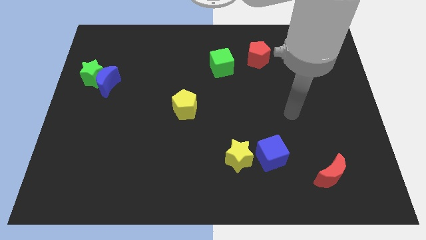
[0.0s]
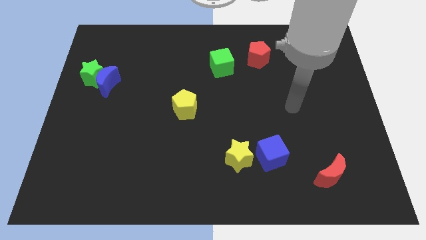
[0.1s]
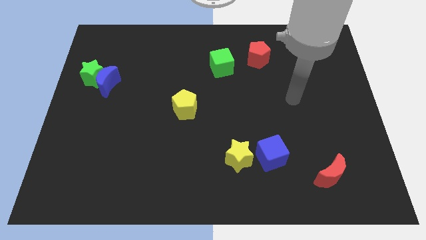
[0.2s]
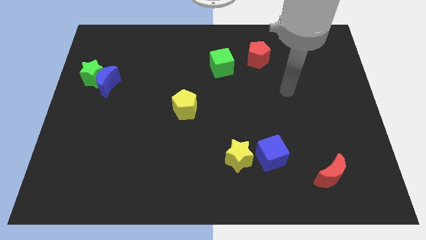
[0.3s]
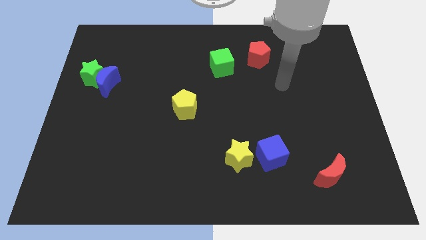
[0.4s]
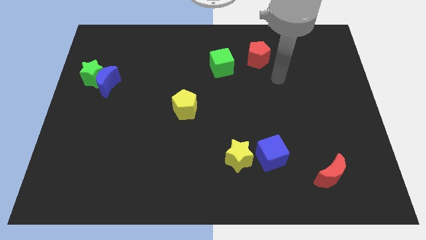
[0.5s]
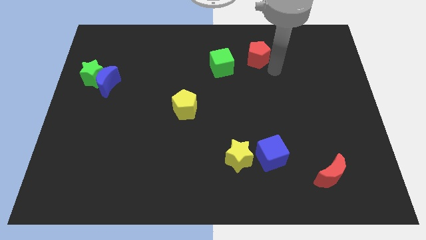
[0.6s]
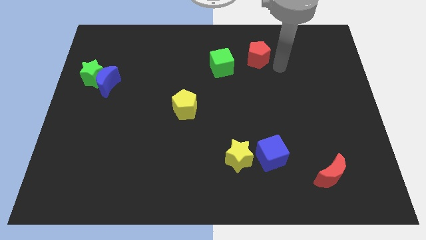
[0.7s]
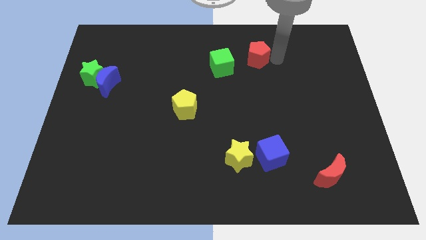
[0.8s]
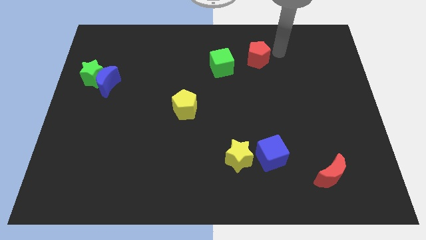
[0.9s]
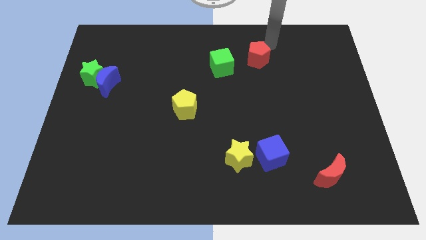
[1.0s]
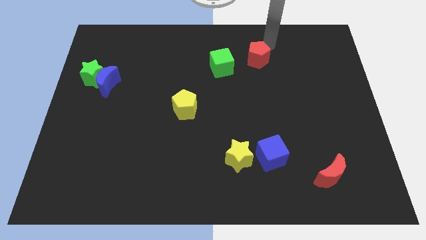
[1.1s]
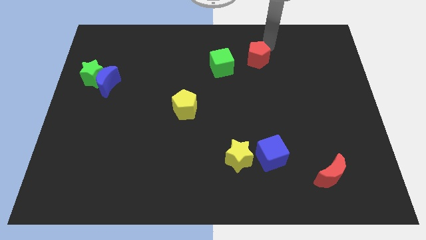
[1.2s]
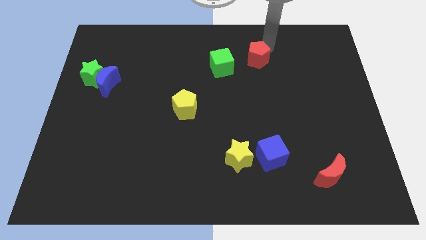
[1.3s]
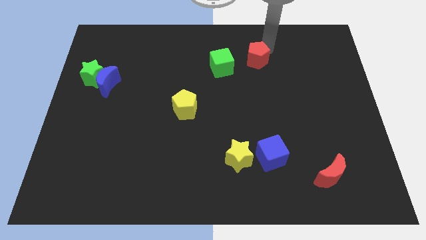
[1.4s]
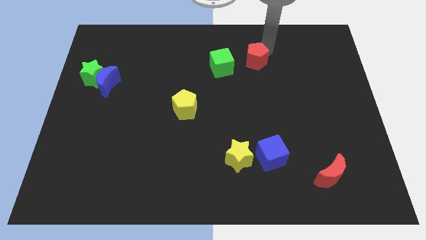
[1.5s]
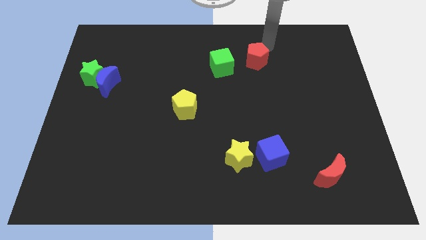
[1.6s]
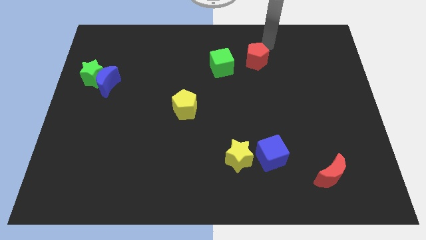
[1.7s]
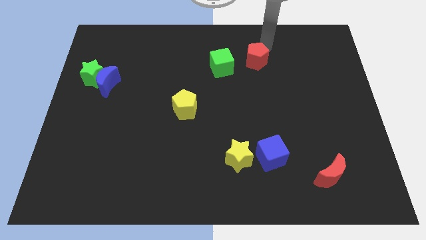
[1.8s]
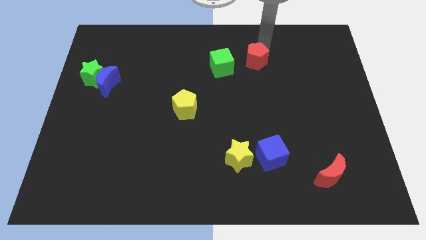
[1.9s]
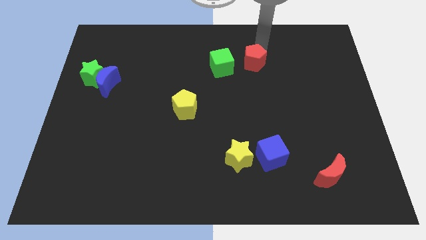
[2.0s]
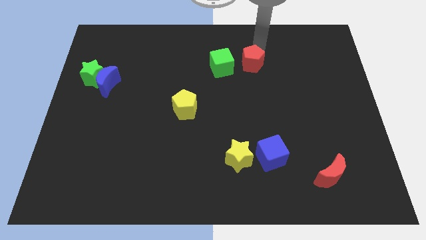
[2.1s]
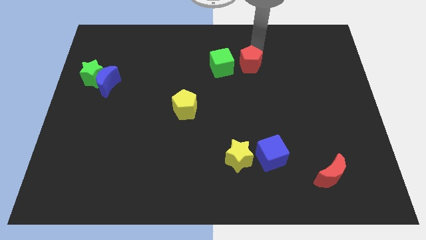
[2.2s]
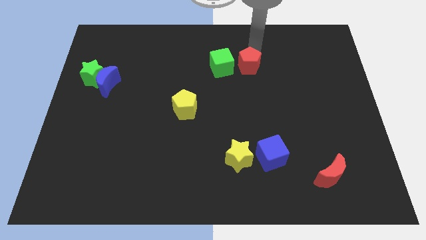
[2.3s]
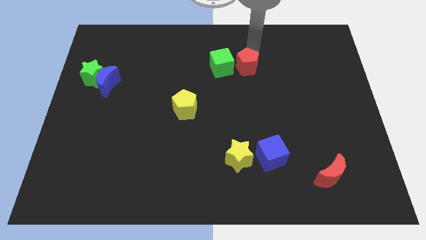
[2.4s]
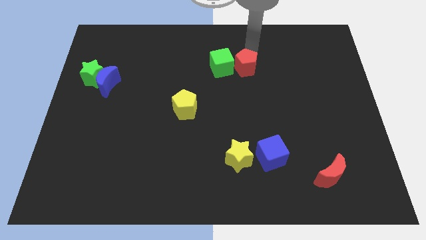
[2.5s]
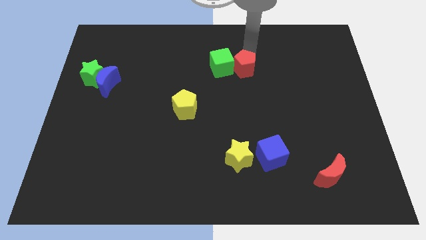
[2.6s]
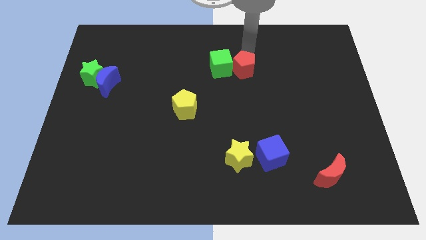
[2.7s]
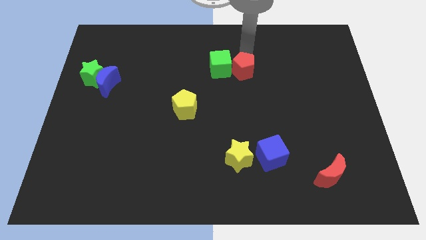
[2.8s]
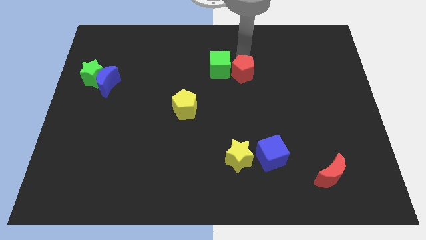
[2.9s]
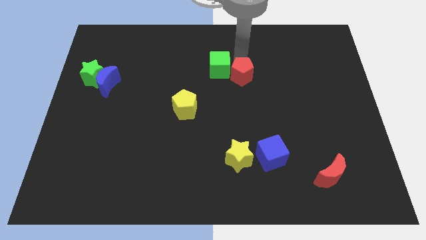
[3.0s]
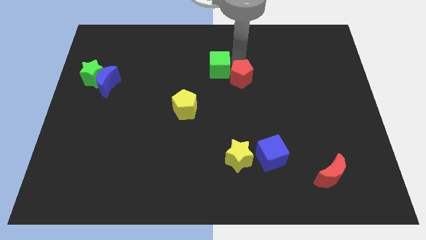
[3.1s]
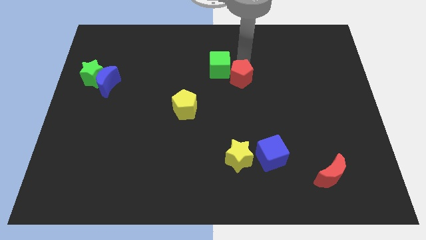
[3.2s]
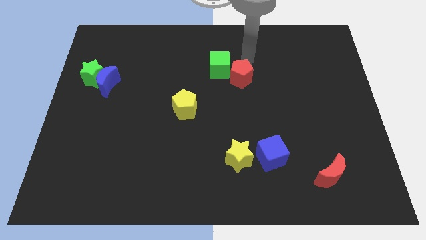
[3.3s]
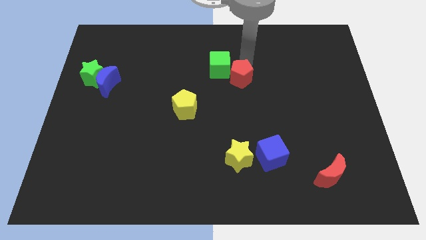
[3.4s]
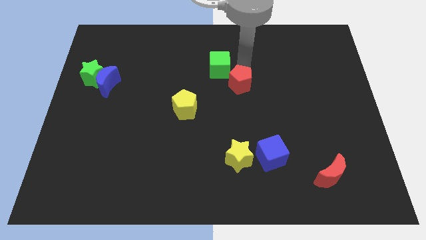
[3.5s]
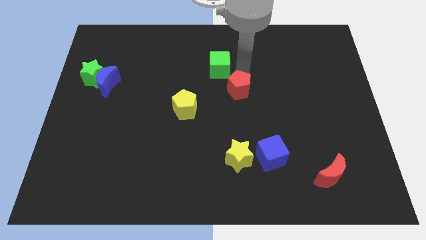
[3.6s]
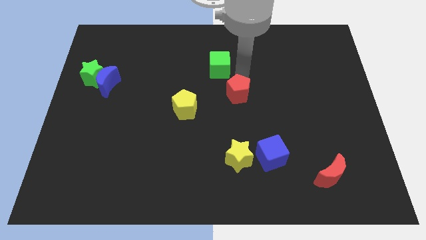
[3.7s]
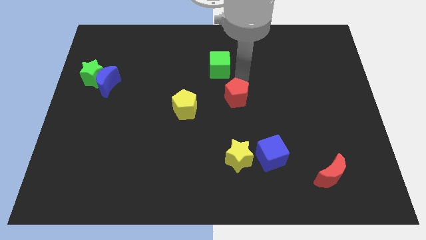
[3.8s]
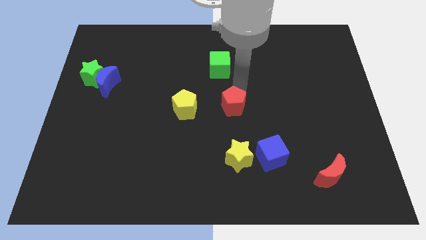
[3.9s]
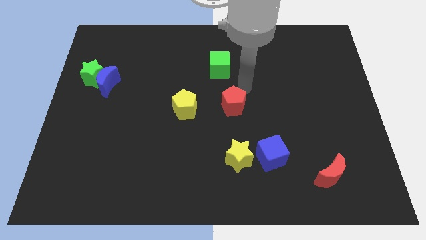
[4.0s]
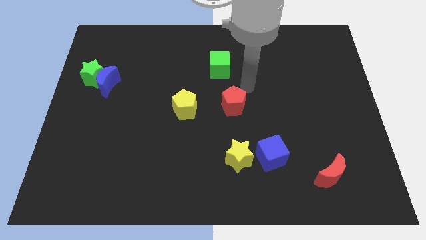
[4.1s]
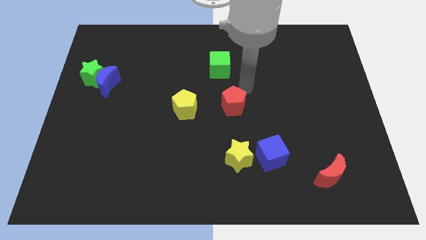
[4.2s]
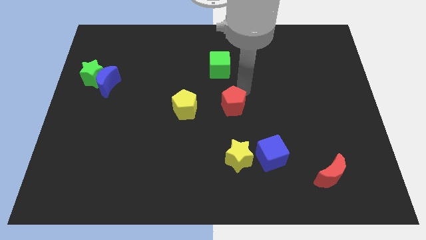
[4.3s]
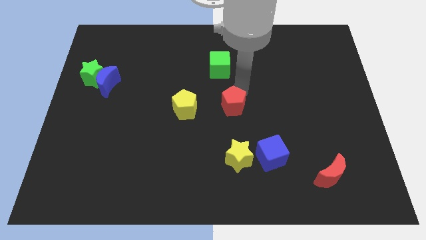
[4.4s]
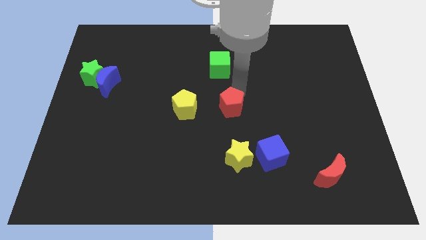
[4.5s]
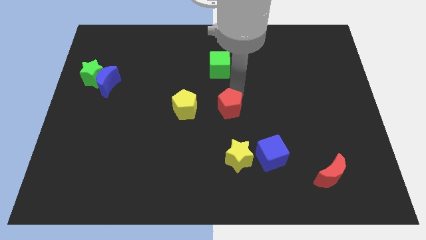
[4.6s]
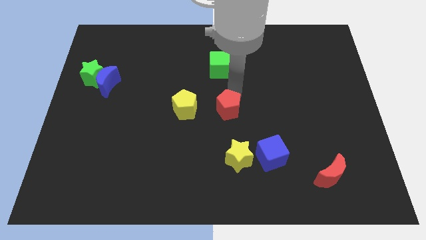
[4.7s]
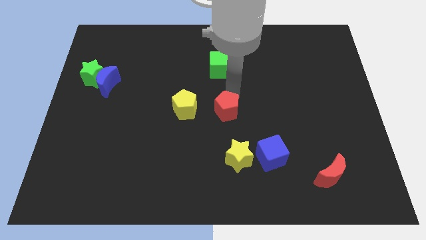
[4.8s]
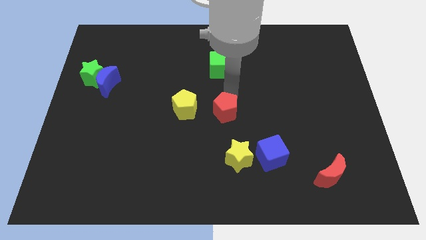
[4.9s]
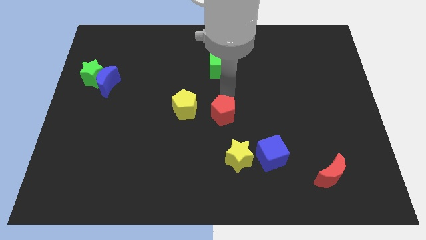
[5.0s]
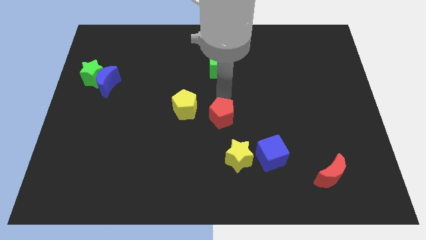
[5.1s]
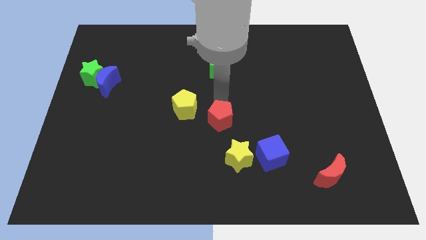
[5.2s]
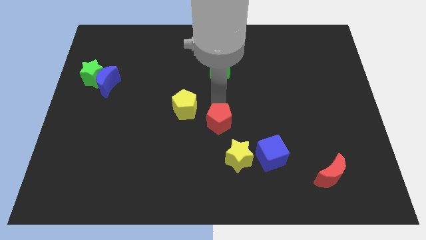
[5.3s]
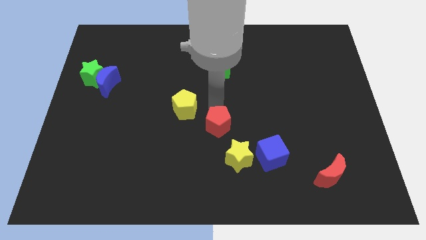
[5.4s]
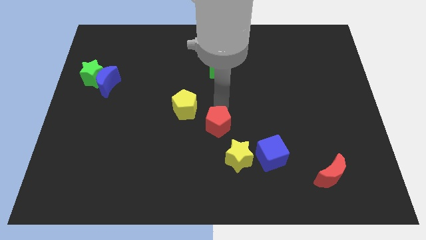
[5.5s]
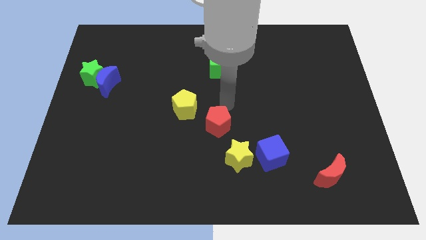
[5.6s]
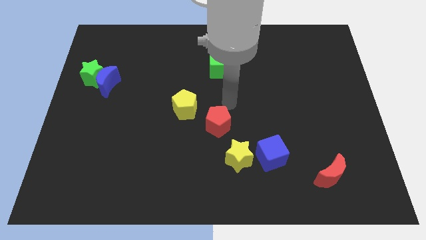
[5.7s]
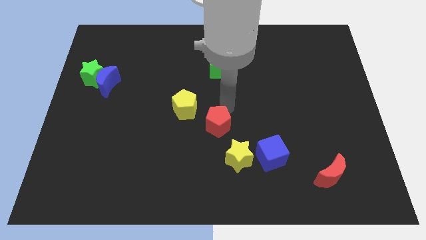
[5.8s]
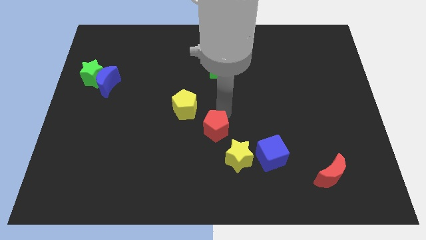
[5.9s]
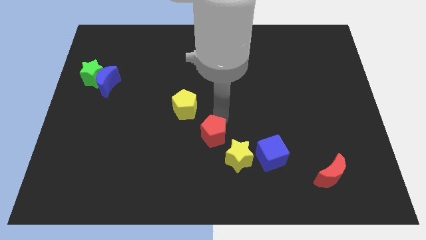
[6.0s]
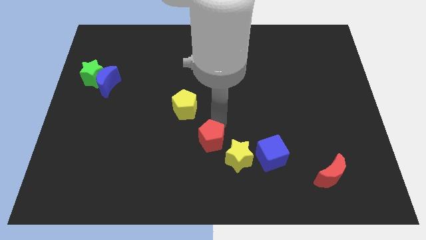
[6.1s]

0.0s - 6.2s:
slide the red pentagon left of the yellow star

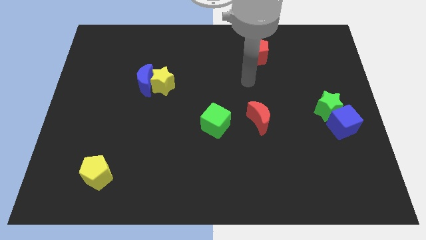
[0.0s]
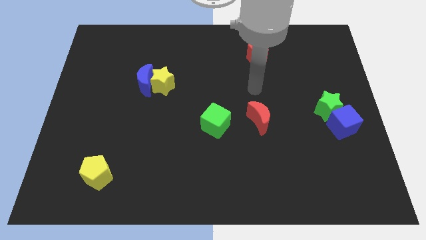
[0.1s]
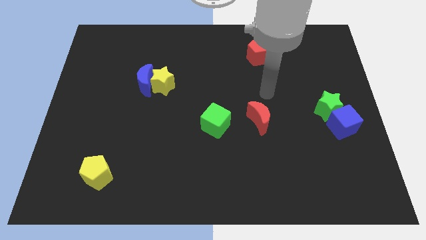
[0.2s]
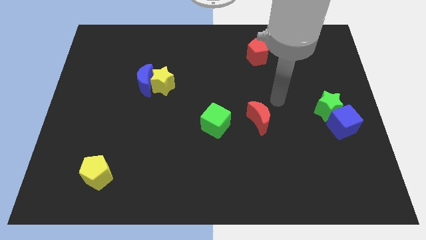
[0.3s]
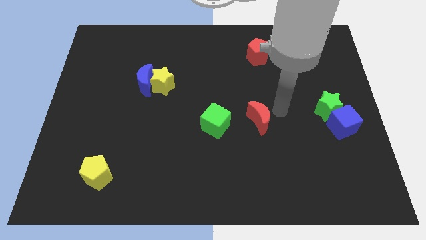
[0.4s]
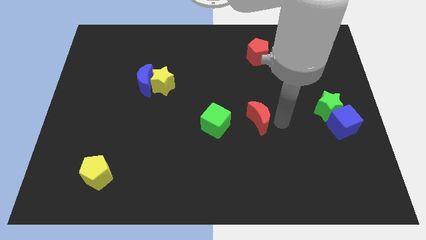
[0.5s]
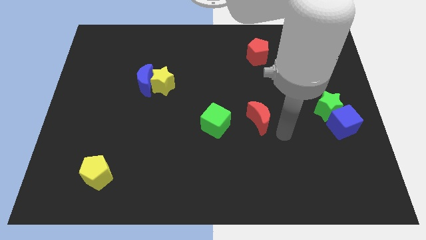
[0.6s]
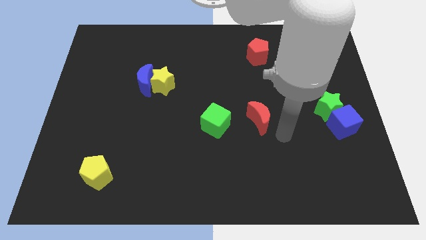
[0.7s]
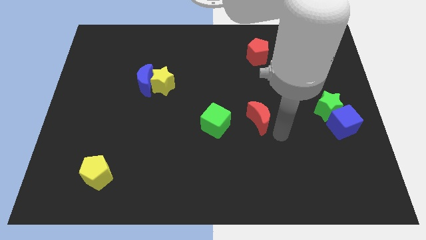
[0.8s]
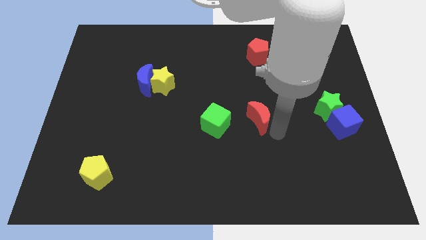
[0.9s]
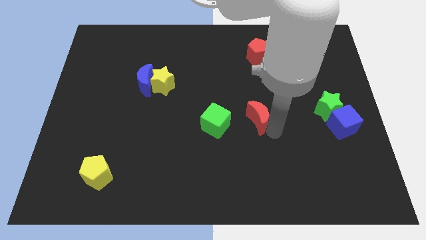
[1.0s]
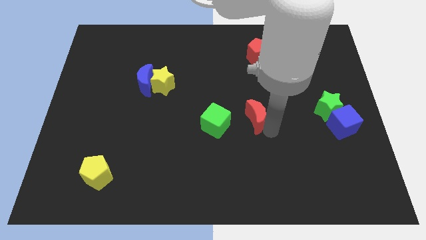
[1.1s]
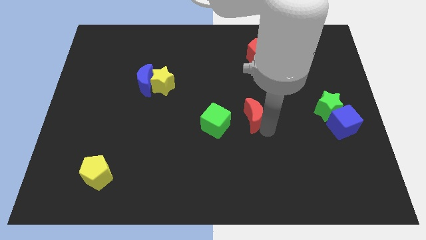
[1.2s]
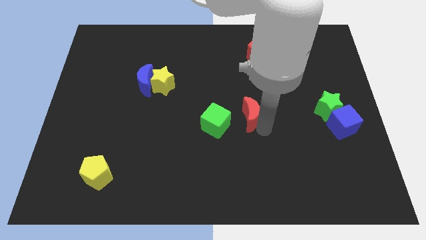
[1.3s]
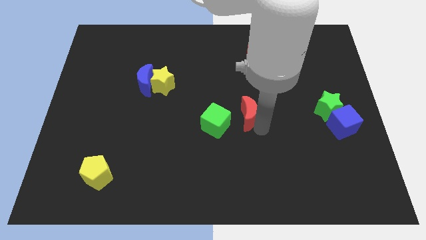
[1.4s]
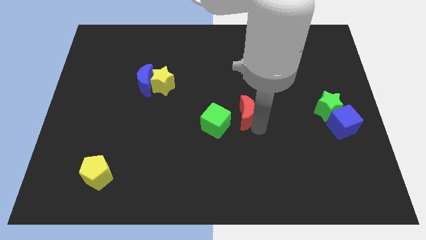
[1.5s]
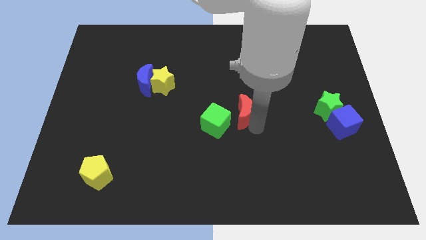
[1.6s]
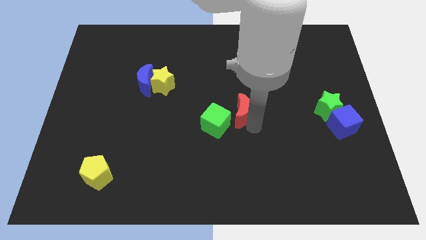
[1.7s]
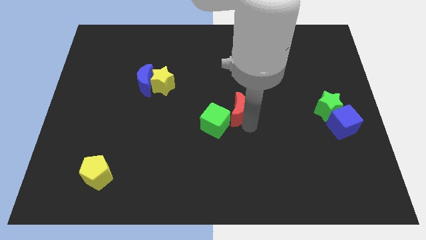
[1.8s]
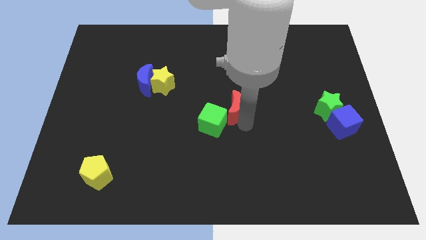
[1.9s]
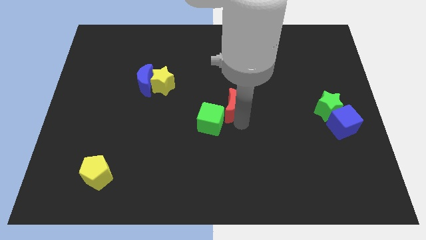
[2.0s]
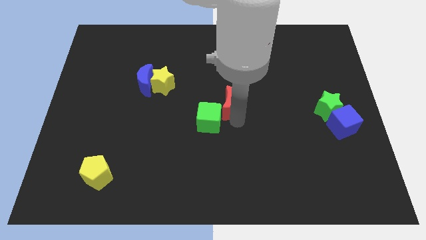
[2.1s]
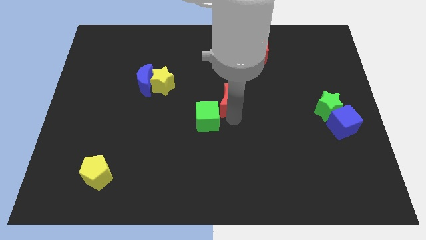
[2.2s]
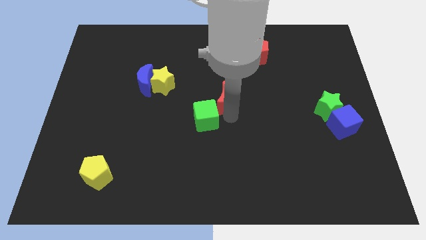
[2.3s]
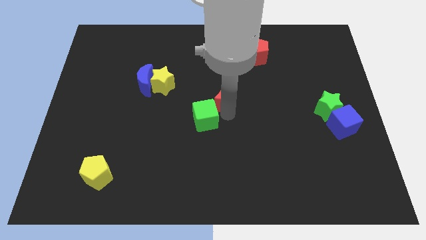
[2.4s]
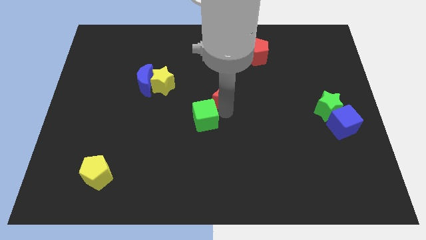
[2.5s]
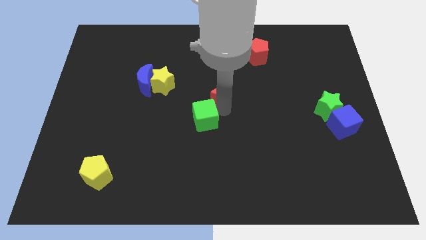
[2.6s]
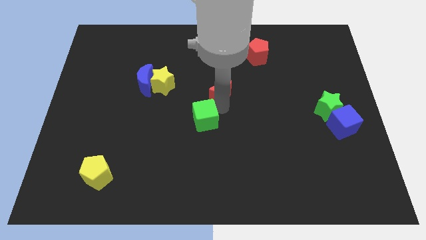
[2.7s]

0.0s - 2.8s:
move the red moon to the right side of the yellow star
